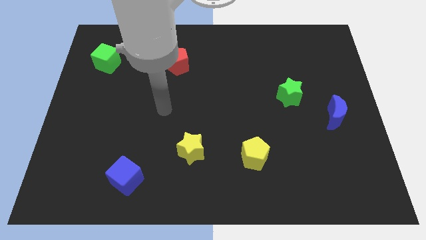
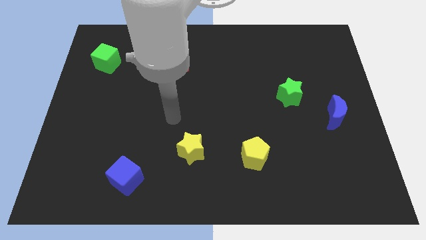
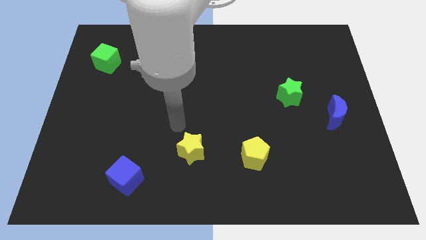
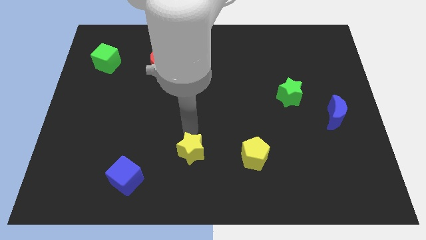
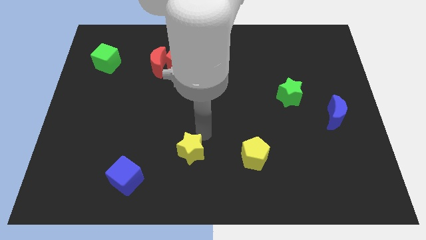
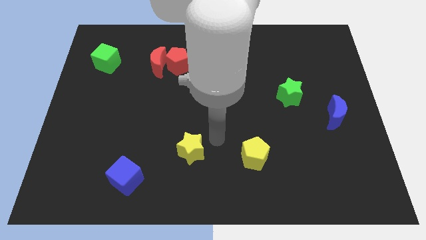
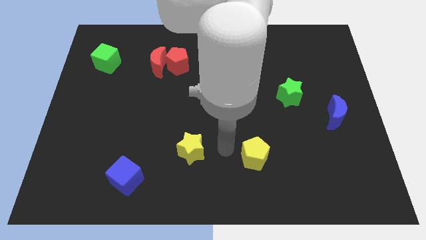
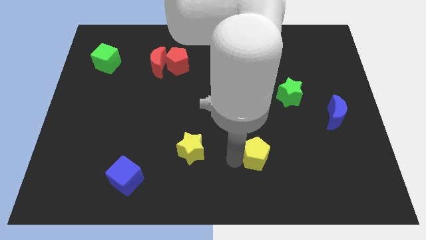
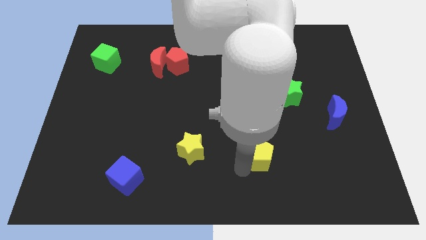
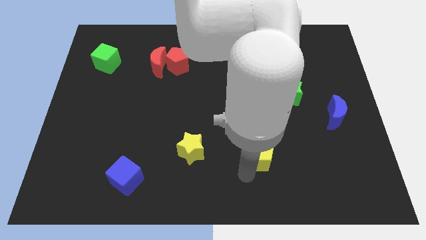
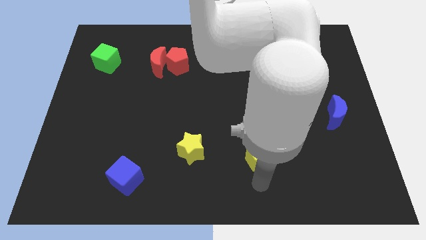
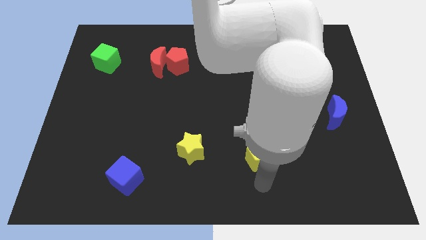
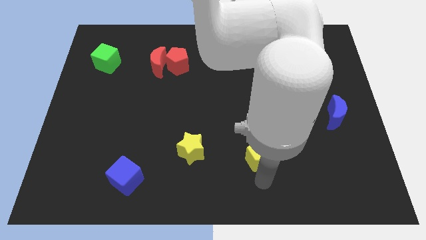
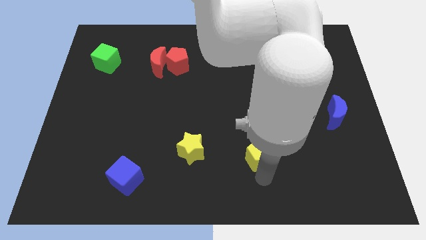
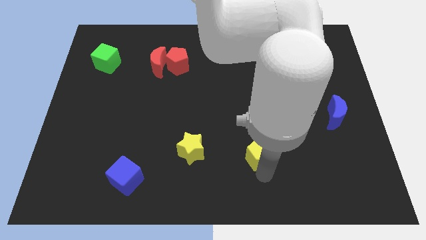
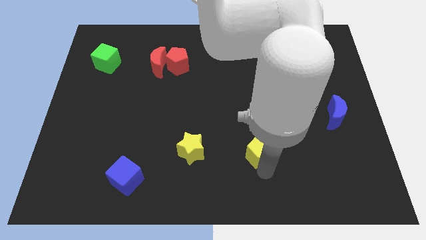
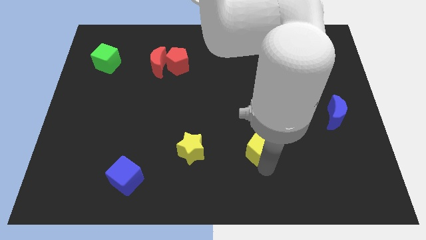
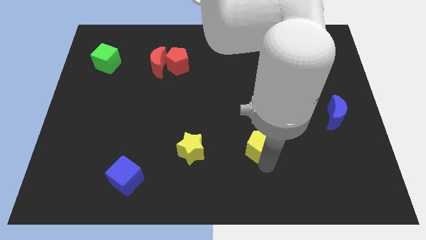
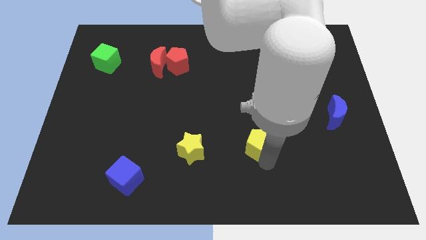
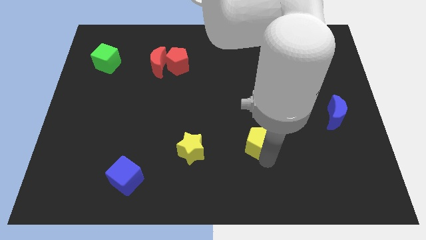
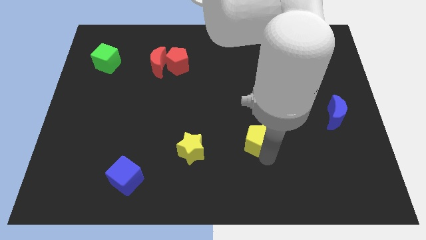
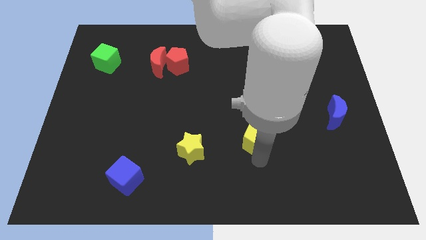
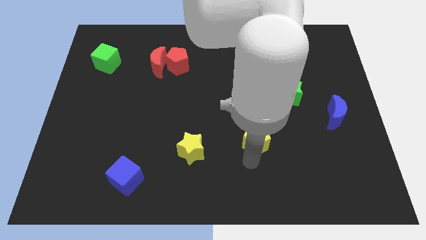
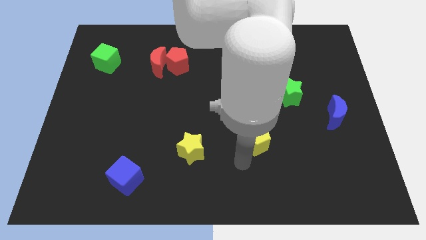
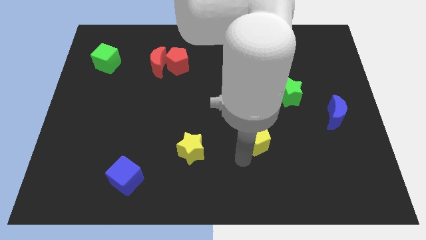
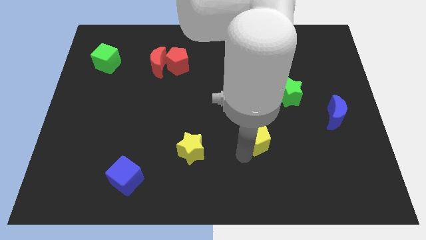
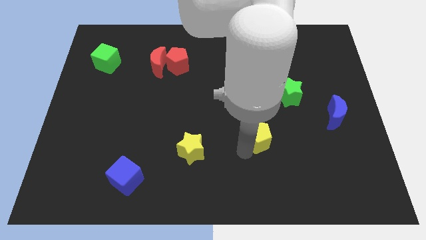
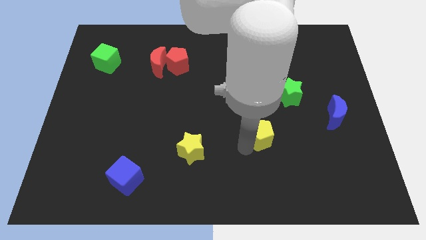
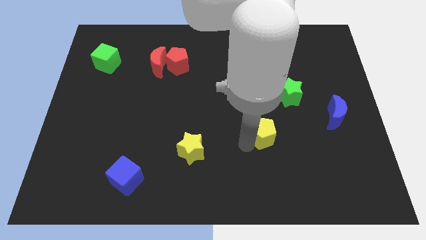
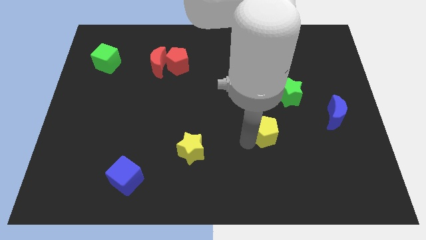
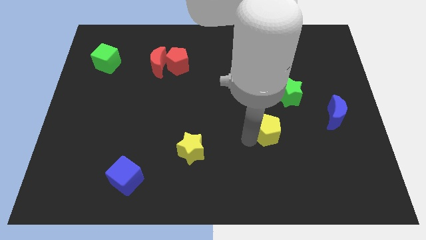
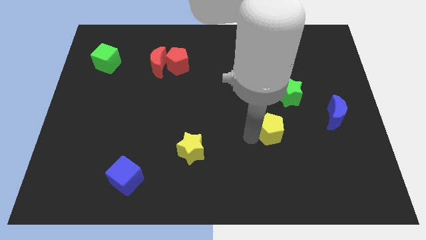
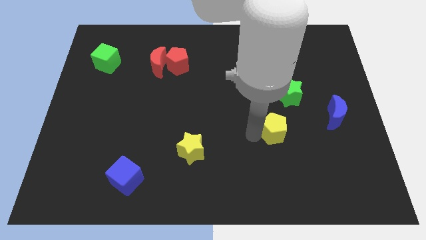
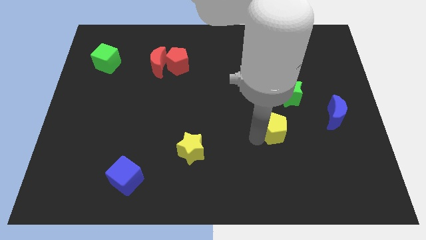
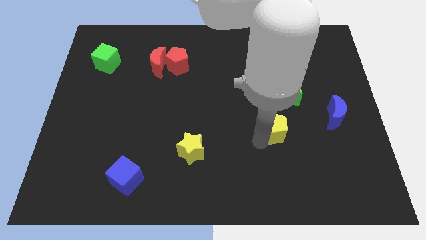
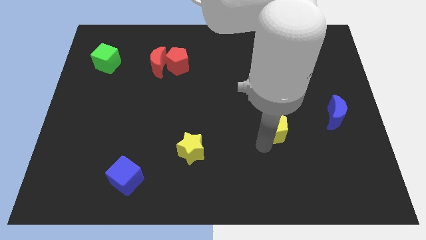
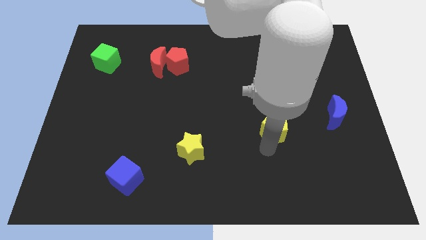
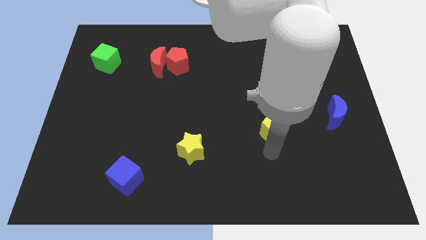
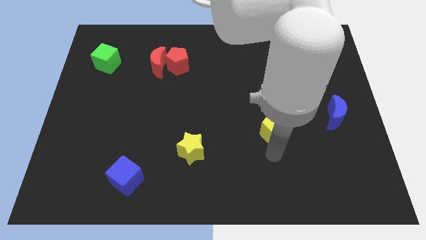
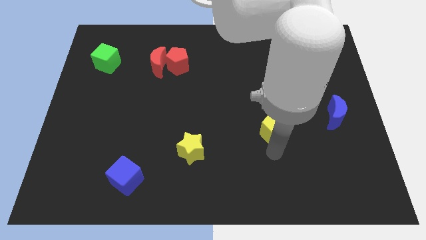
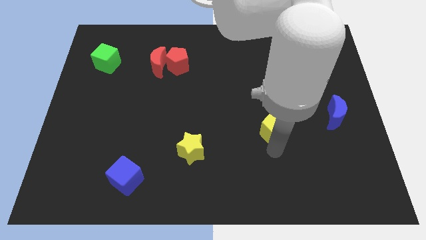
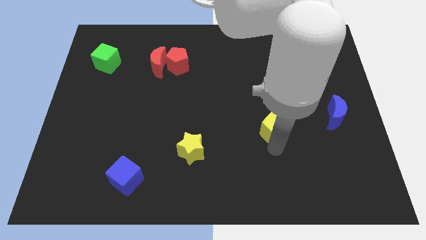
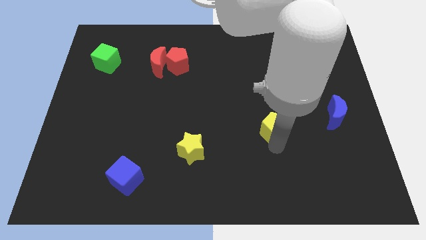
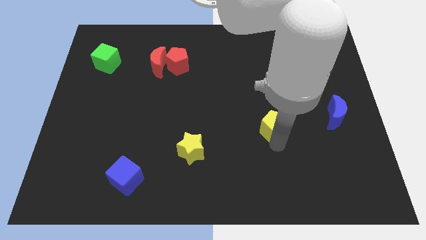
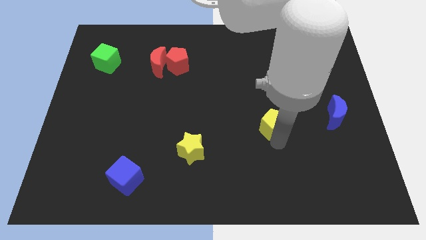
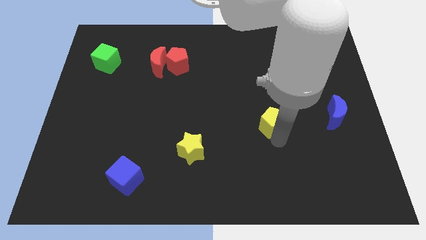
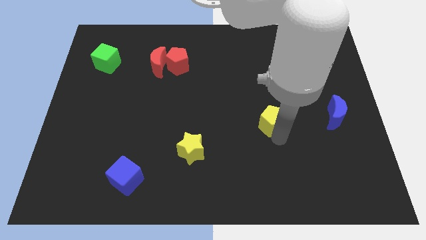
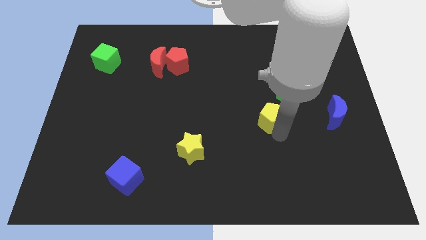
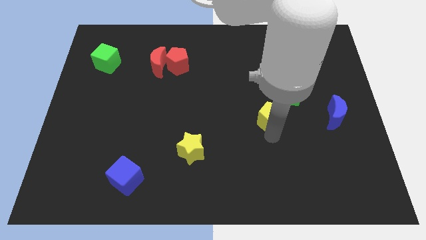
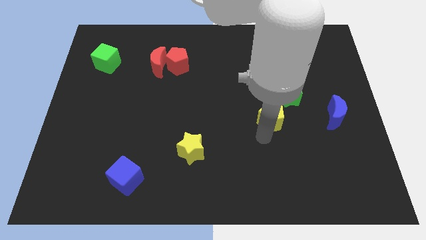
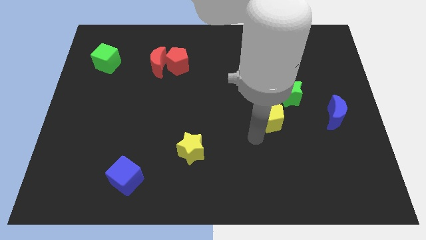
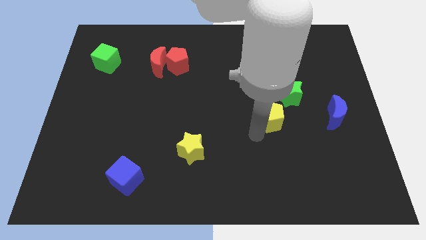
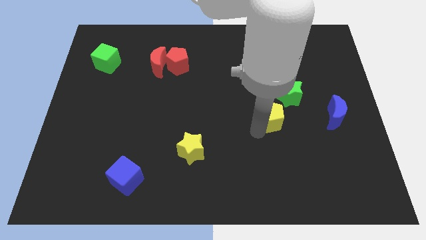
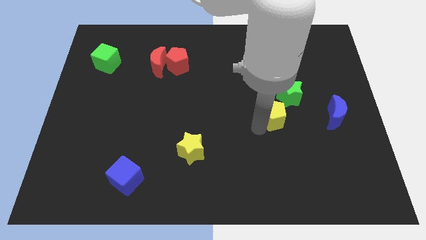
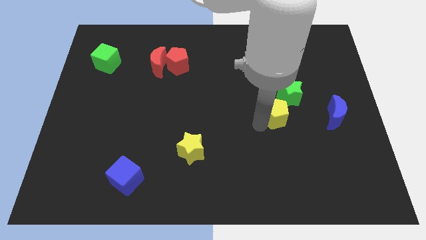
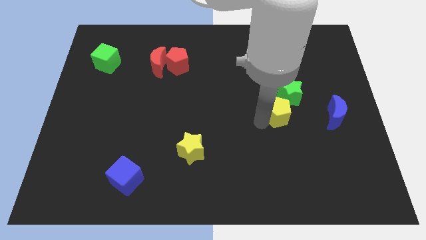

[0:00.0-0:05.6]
put the yellow pentagon to the green star

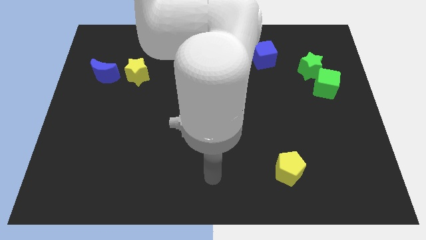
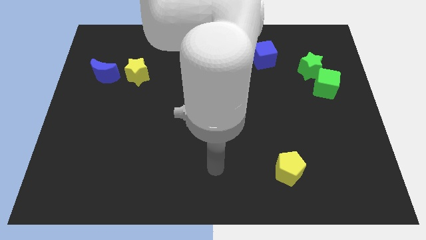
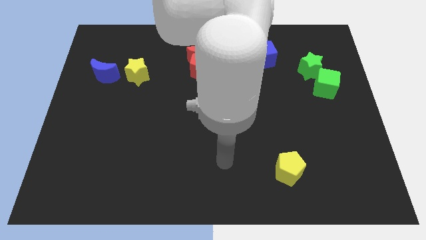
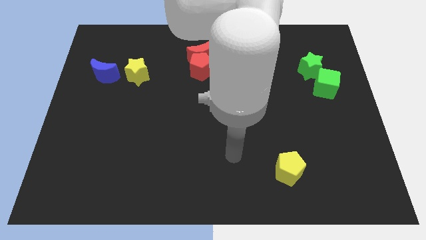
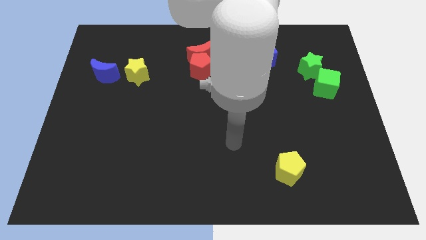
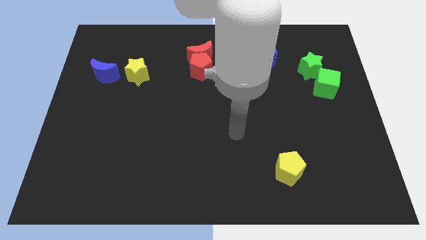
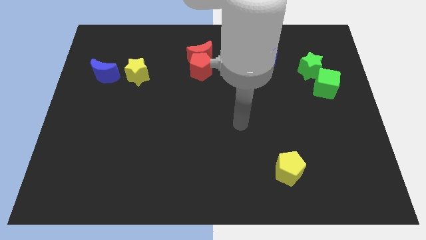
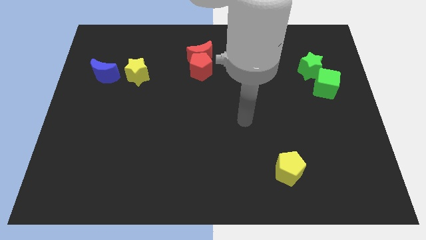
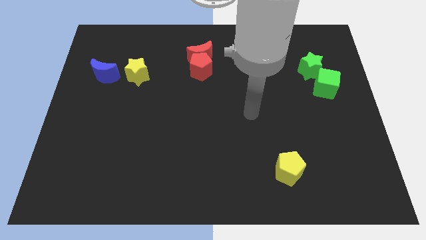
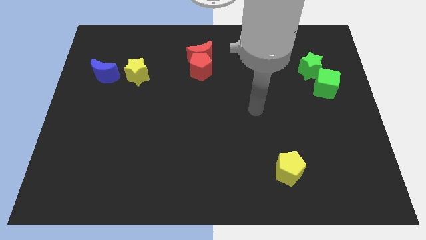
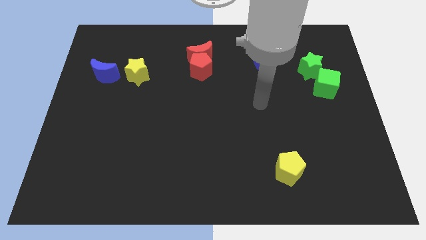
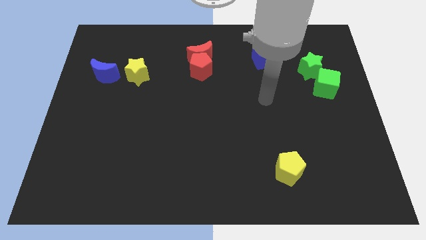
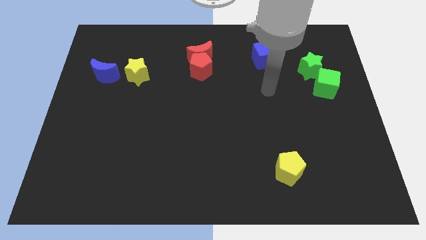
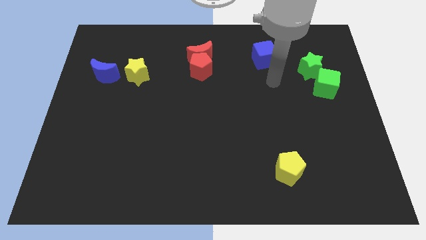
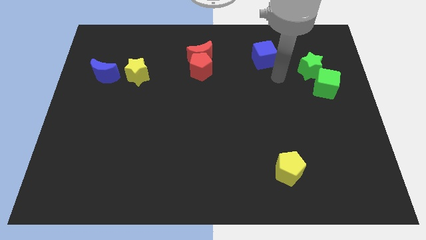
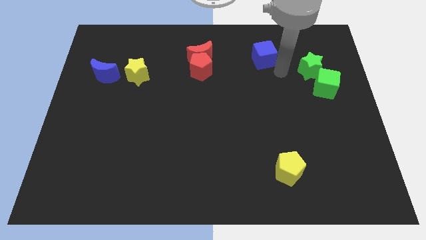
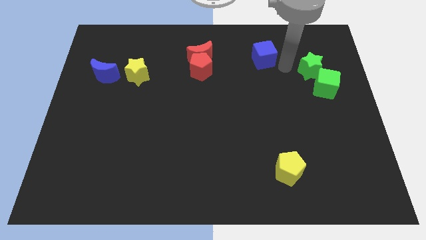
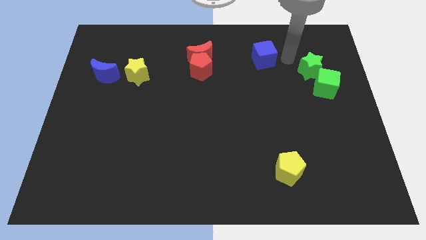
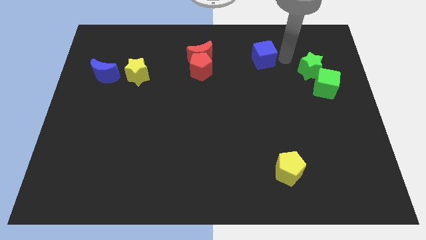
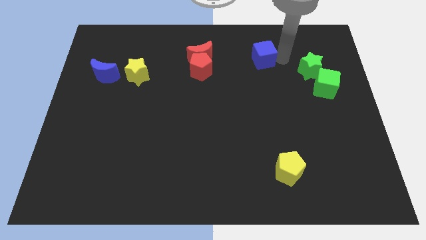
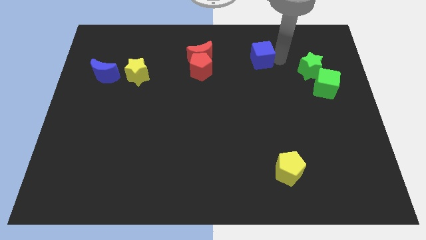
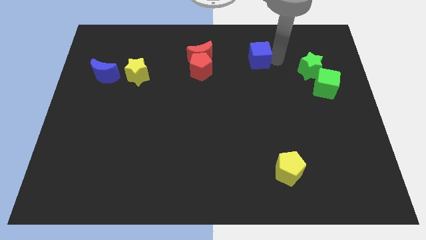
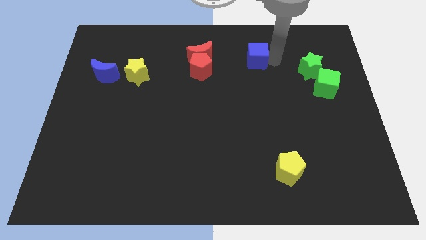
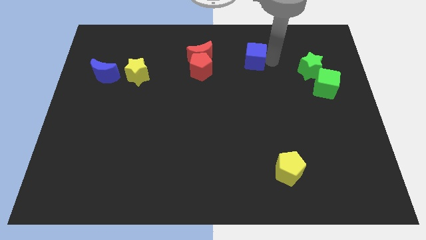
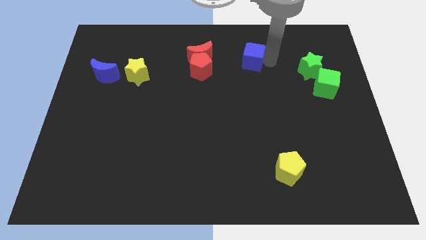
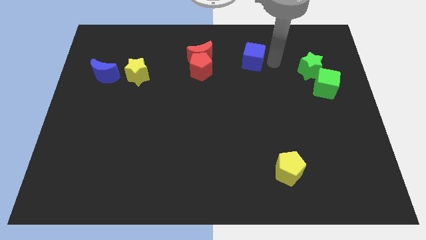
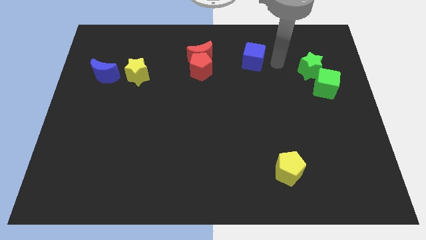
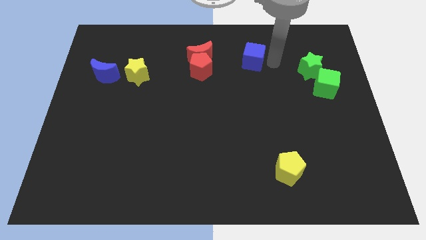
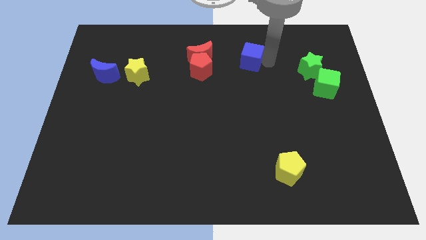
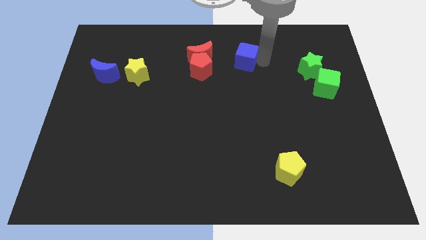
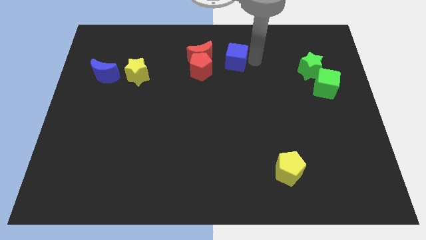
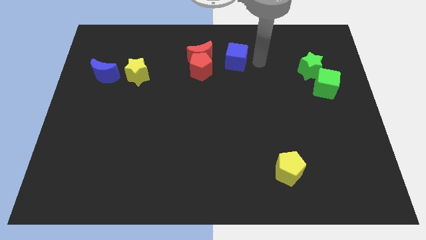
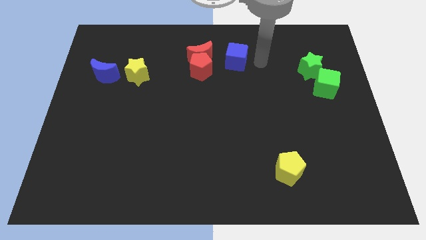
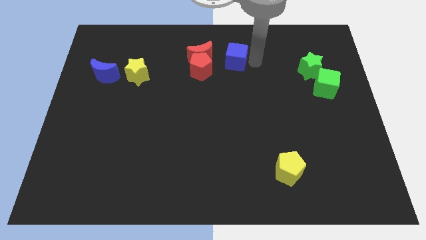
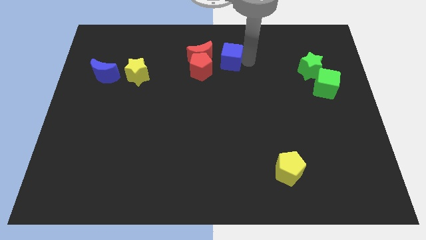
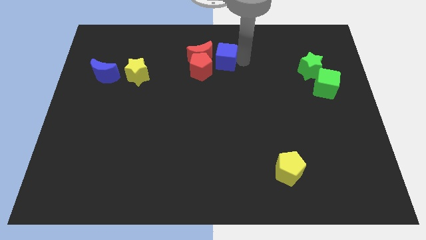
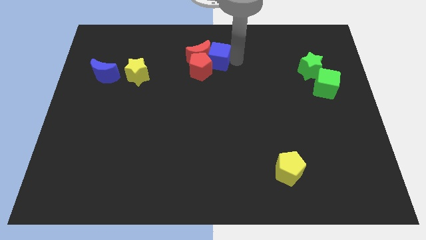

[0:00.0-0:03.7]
move the blue cube to the red moon
